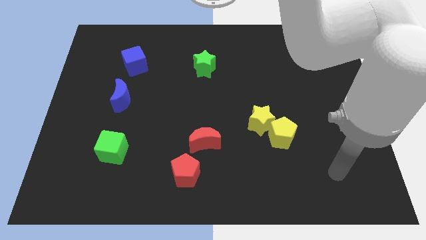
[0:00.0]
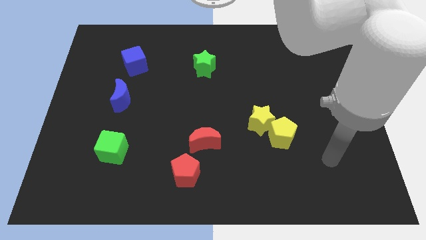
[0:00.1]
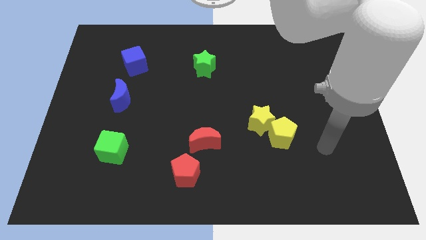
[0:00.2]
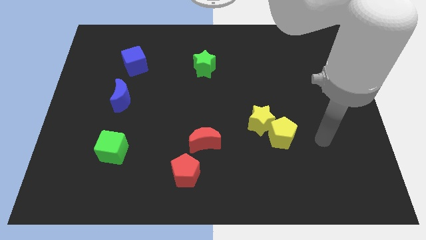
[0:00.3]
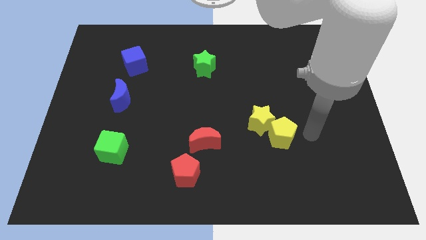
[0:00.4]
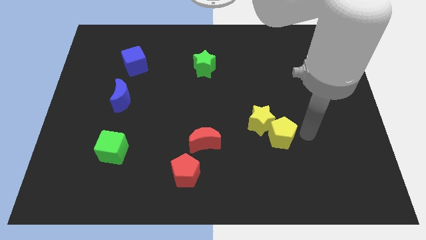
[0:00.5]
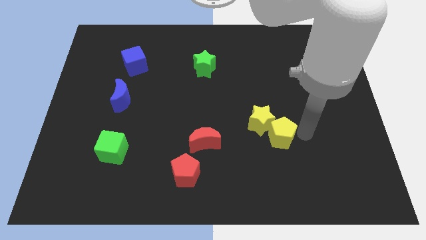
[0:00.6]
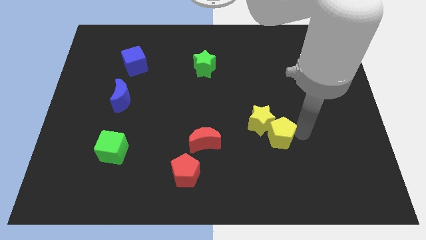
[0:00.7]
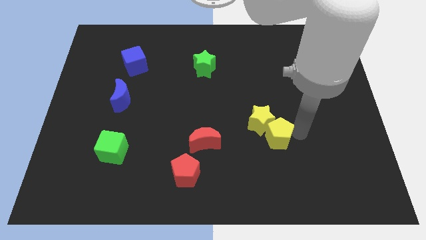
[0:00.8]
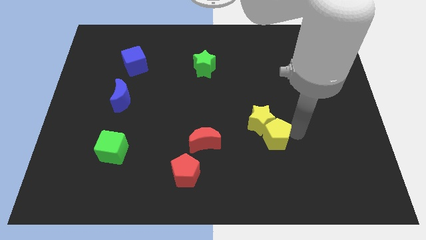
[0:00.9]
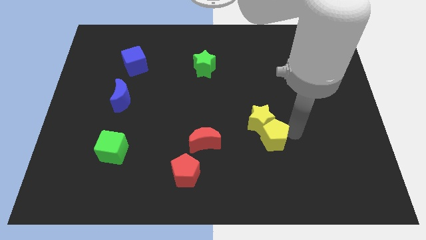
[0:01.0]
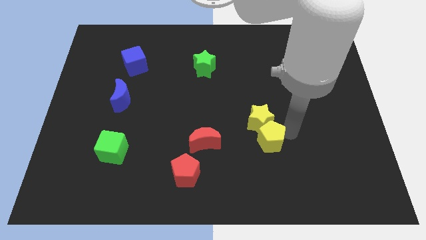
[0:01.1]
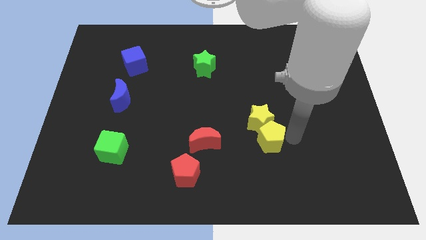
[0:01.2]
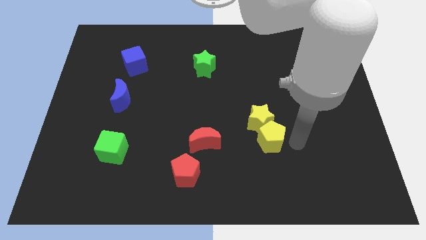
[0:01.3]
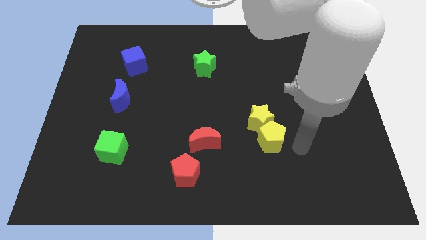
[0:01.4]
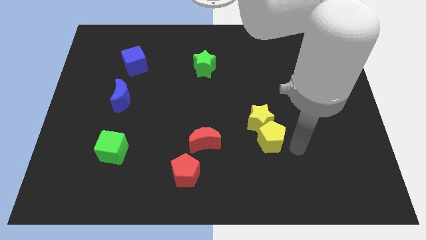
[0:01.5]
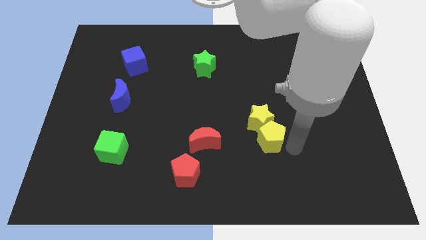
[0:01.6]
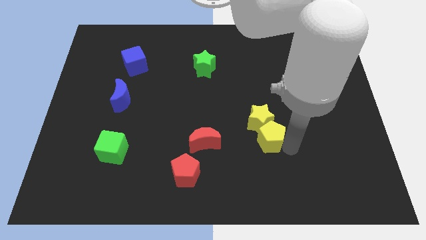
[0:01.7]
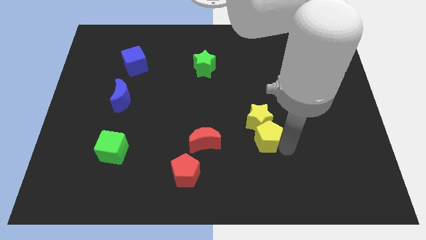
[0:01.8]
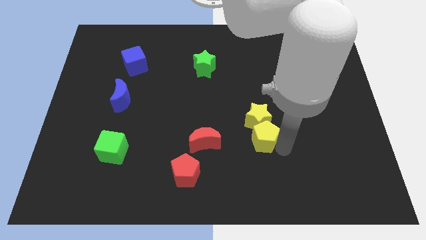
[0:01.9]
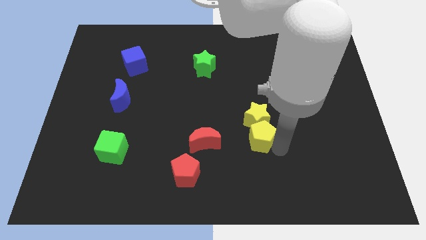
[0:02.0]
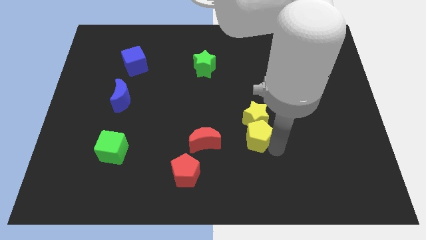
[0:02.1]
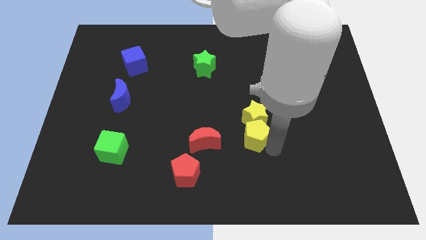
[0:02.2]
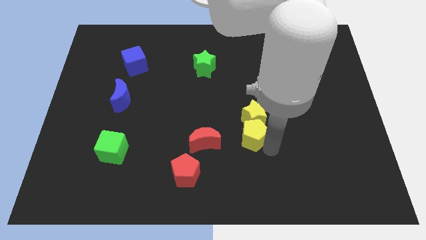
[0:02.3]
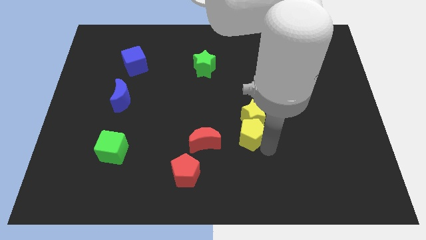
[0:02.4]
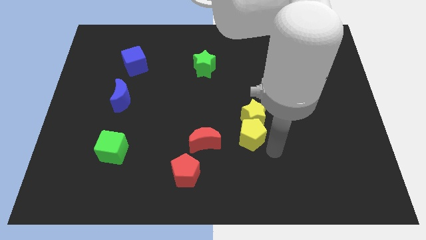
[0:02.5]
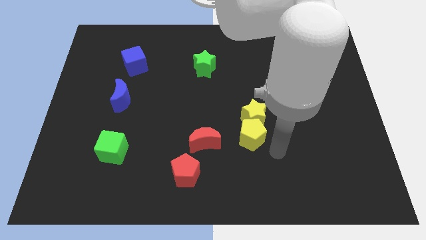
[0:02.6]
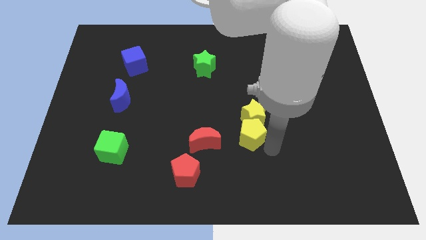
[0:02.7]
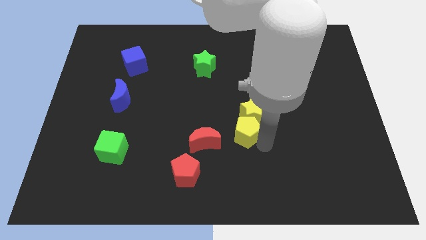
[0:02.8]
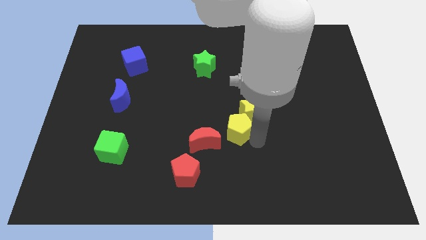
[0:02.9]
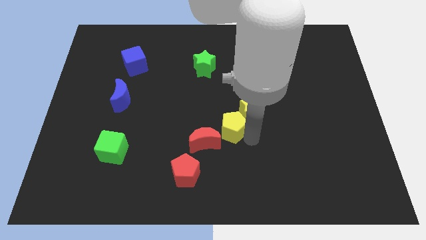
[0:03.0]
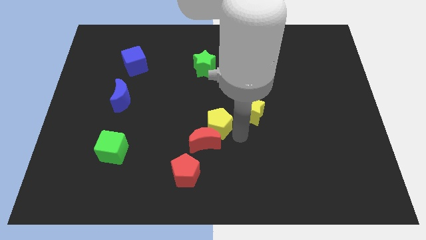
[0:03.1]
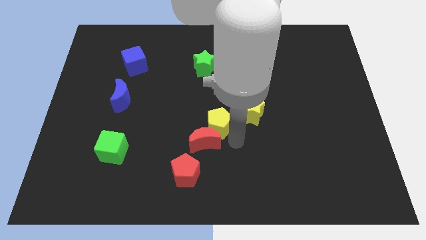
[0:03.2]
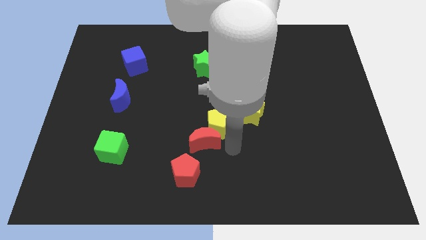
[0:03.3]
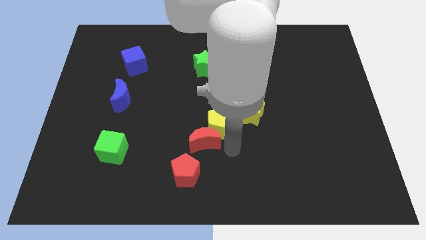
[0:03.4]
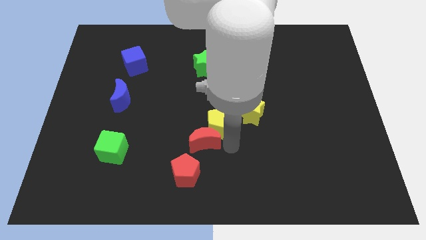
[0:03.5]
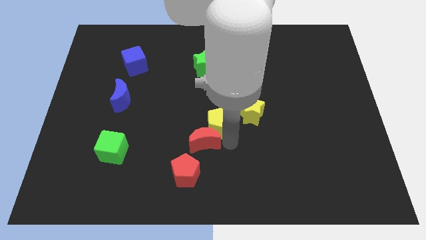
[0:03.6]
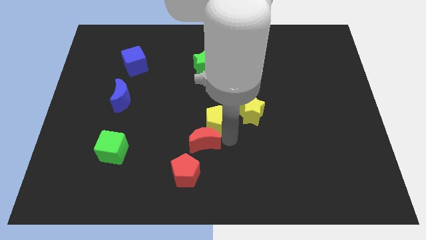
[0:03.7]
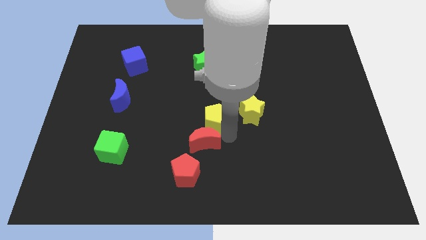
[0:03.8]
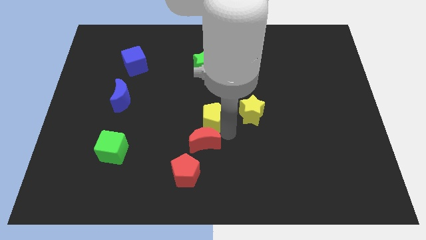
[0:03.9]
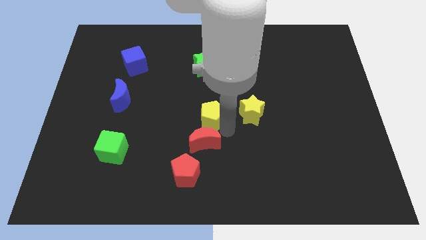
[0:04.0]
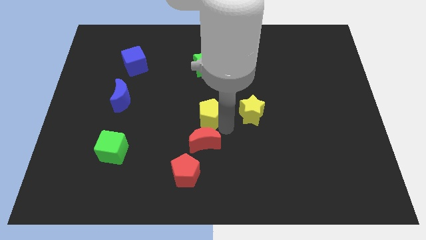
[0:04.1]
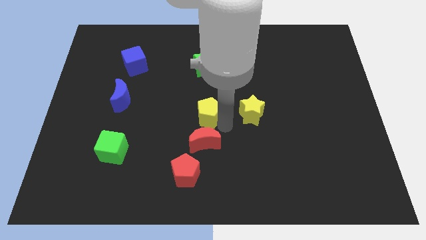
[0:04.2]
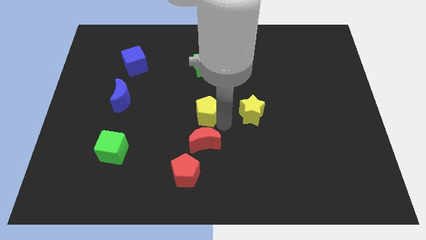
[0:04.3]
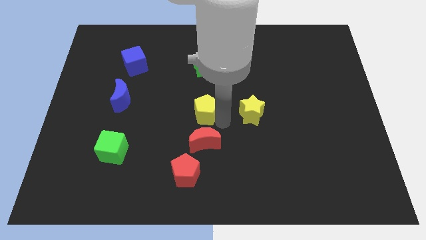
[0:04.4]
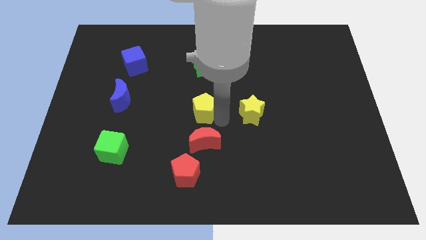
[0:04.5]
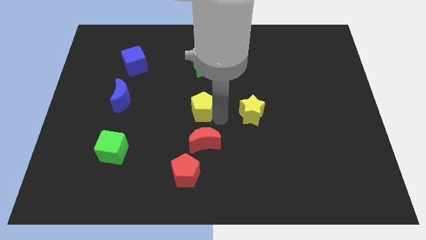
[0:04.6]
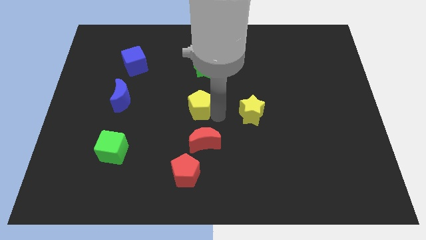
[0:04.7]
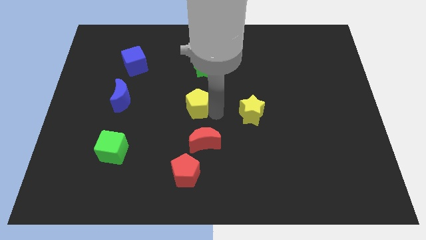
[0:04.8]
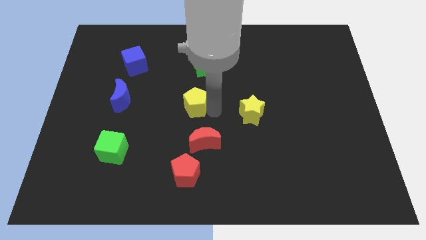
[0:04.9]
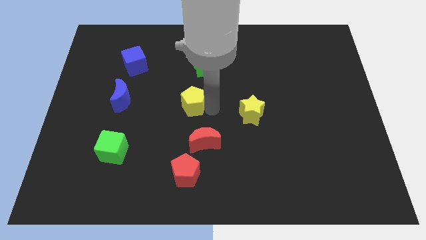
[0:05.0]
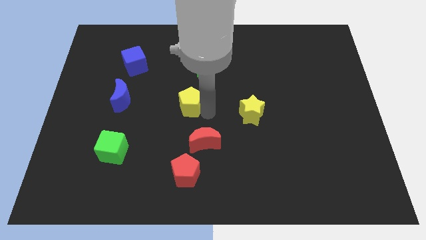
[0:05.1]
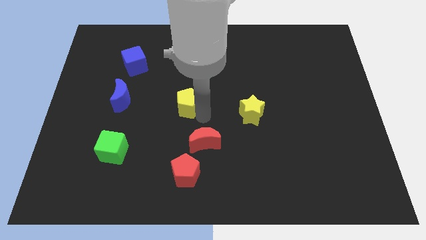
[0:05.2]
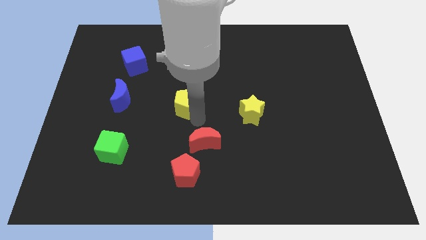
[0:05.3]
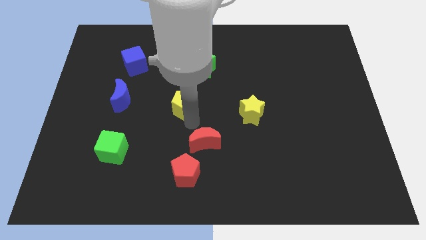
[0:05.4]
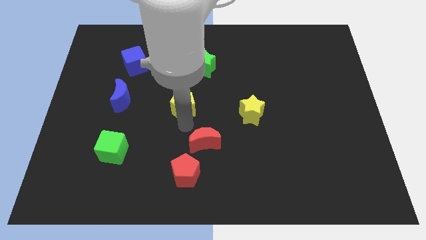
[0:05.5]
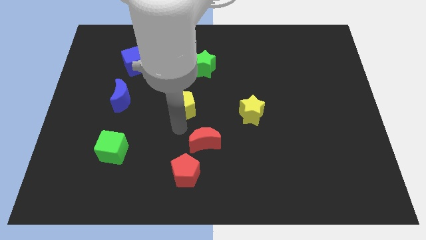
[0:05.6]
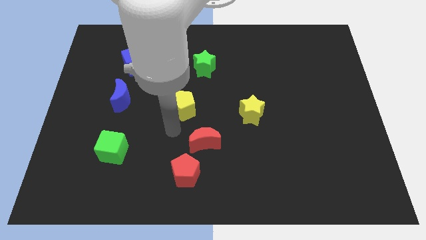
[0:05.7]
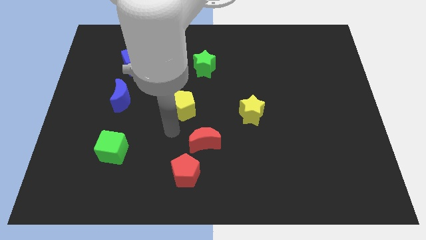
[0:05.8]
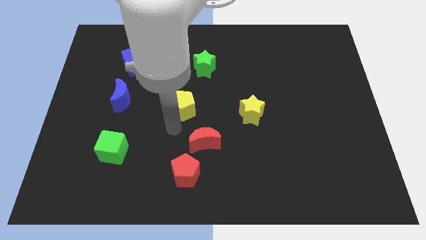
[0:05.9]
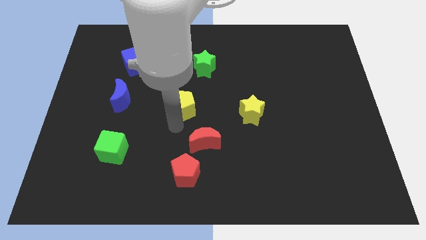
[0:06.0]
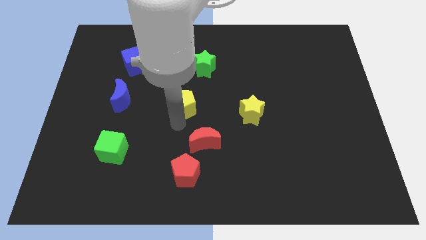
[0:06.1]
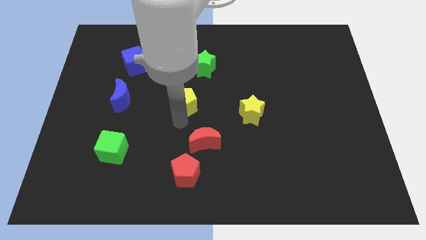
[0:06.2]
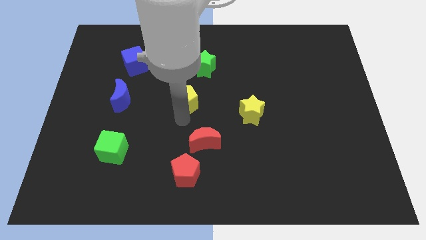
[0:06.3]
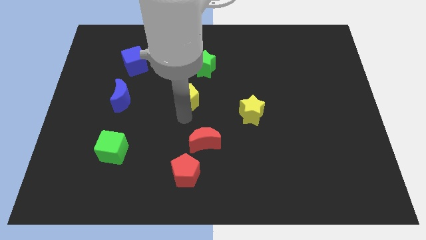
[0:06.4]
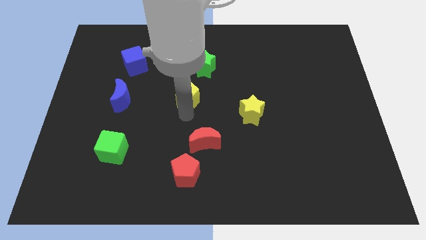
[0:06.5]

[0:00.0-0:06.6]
move the yellow pentagon diagonally up and to the left

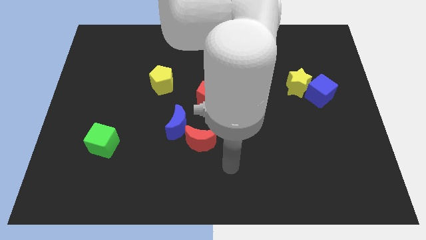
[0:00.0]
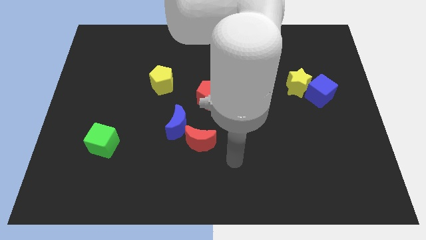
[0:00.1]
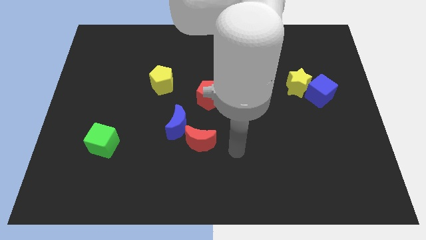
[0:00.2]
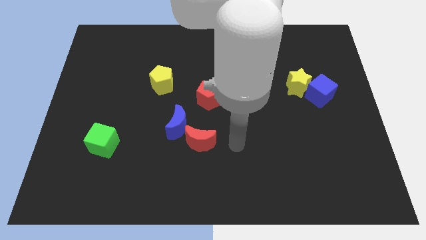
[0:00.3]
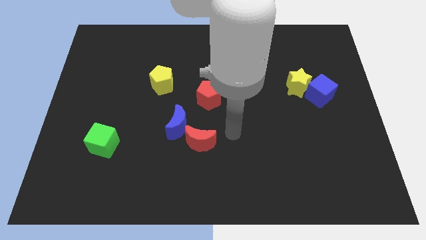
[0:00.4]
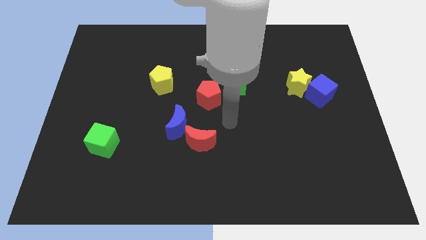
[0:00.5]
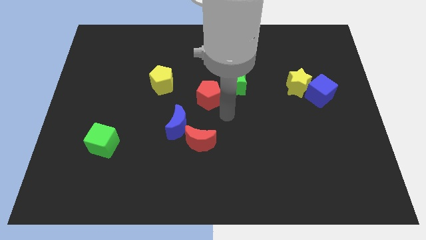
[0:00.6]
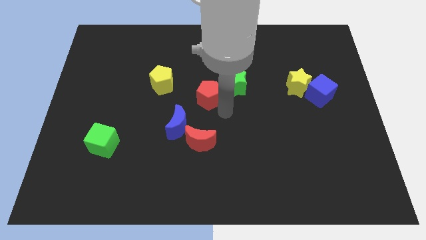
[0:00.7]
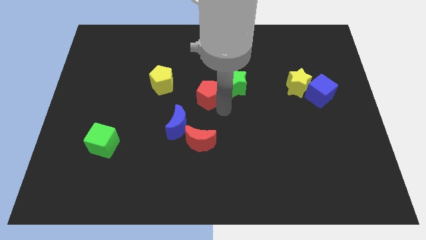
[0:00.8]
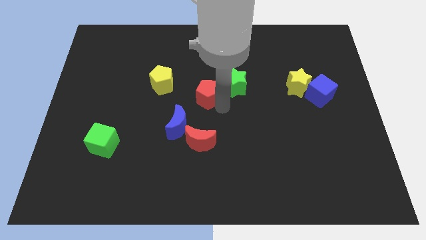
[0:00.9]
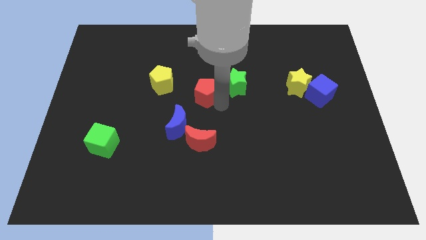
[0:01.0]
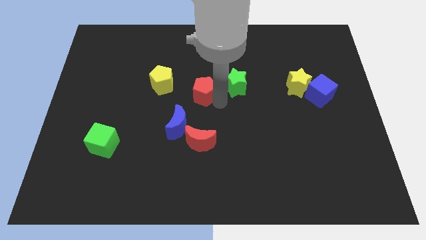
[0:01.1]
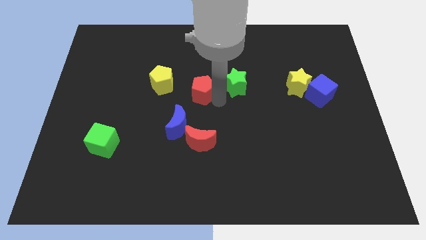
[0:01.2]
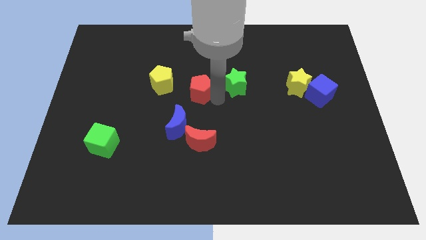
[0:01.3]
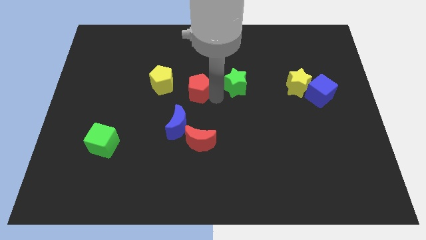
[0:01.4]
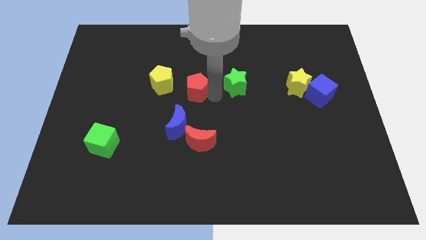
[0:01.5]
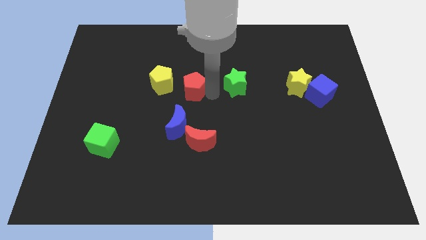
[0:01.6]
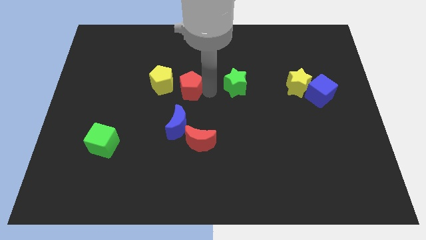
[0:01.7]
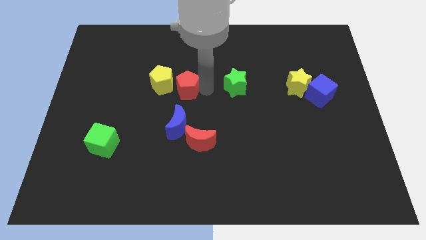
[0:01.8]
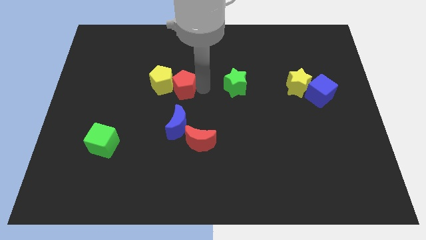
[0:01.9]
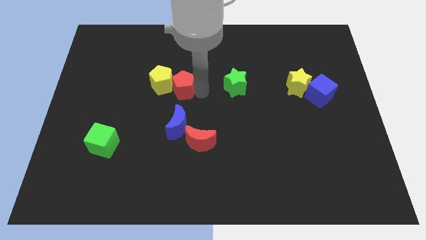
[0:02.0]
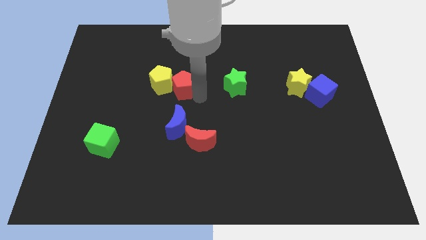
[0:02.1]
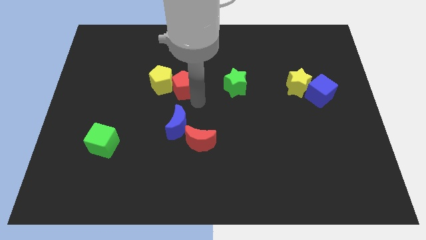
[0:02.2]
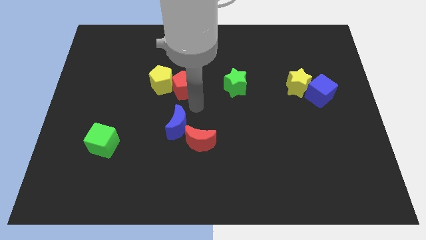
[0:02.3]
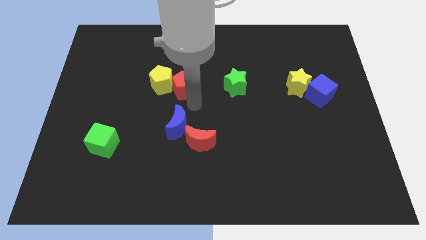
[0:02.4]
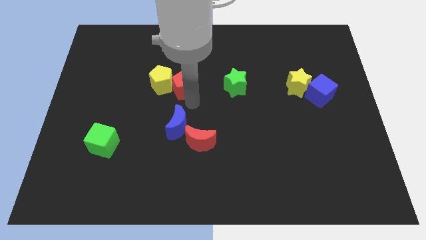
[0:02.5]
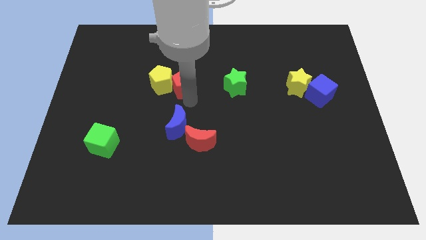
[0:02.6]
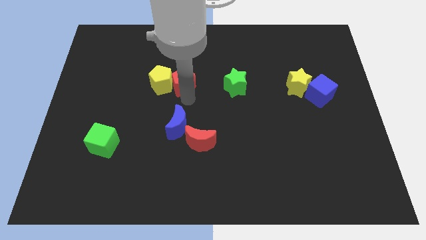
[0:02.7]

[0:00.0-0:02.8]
slightly move the red pentagon diagonally up and to the left
